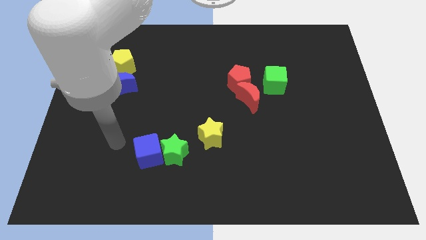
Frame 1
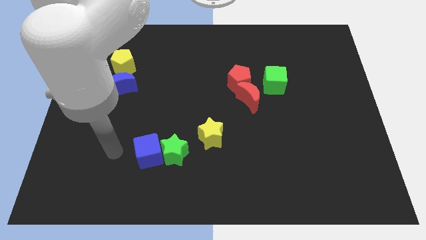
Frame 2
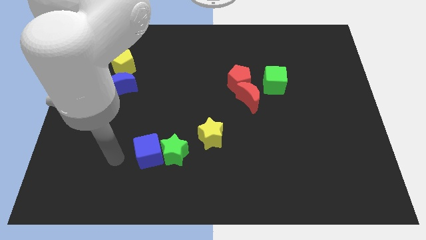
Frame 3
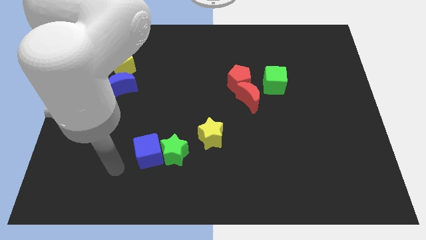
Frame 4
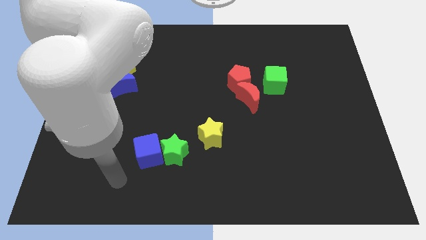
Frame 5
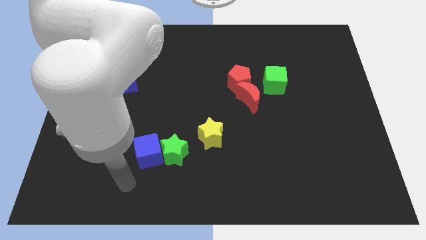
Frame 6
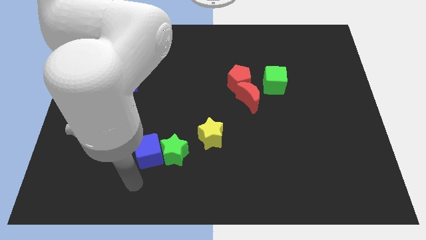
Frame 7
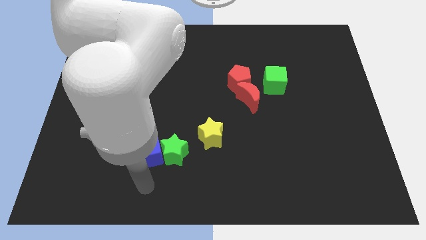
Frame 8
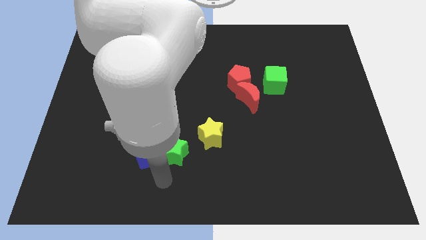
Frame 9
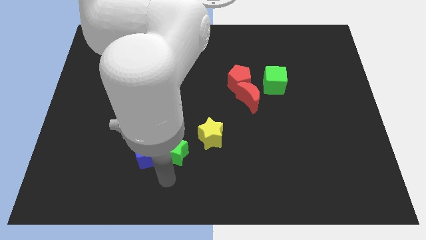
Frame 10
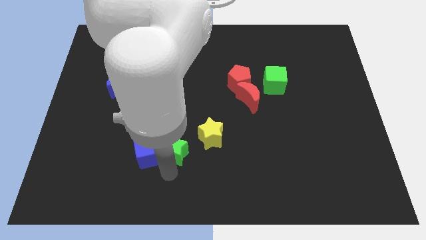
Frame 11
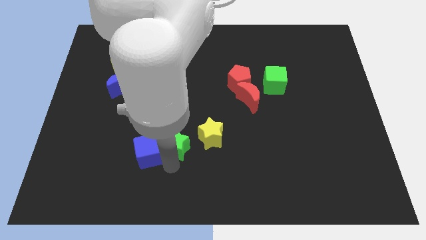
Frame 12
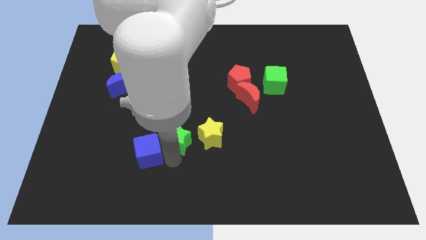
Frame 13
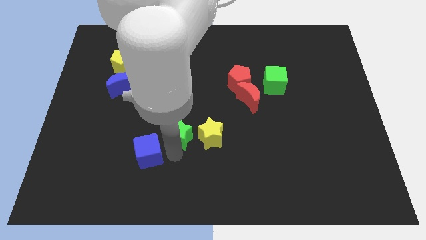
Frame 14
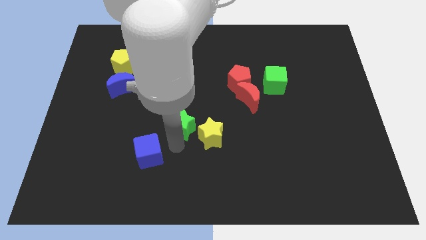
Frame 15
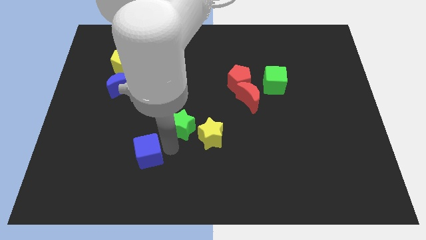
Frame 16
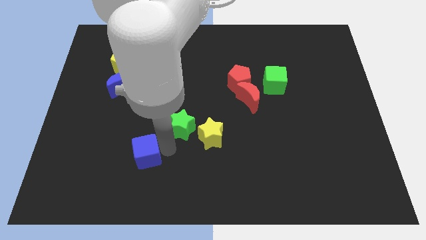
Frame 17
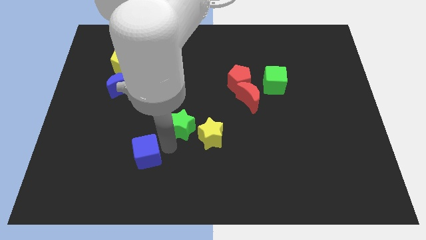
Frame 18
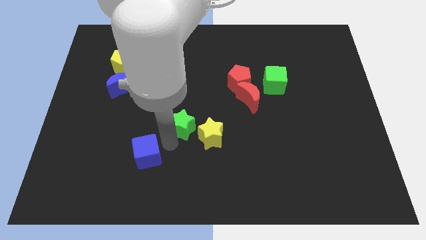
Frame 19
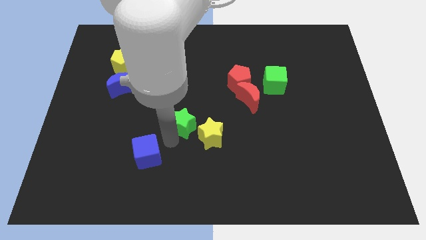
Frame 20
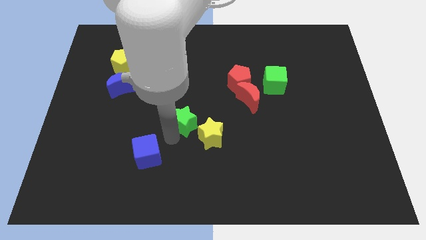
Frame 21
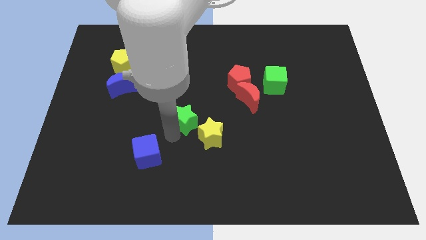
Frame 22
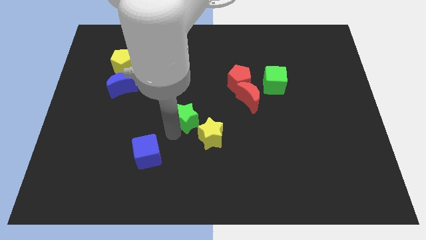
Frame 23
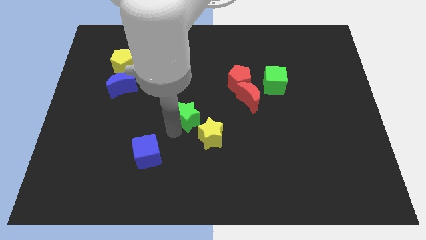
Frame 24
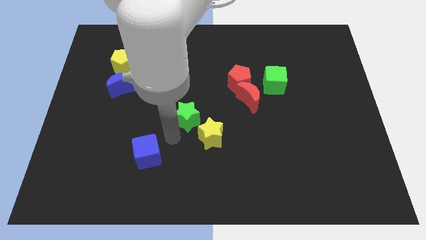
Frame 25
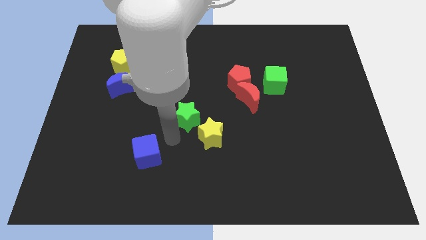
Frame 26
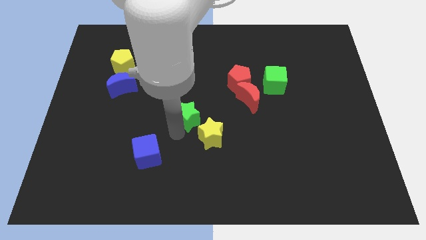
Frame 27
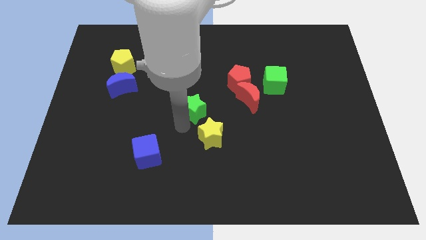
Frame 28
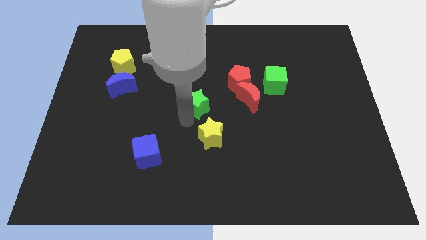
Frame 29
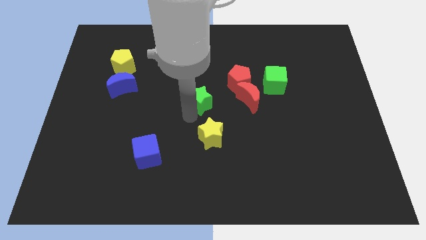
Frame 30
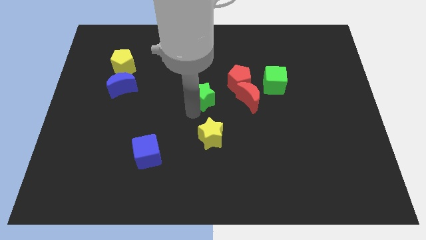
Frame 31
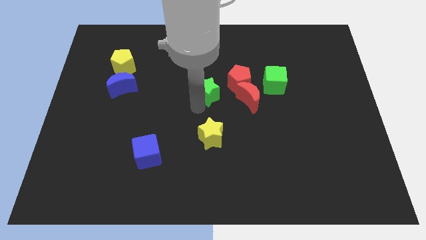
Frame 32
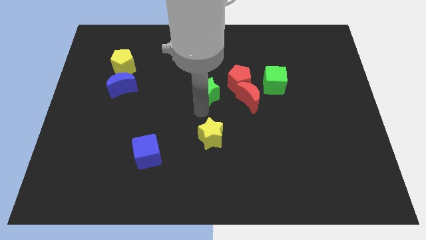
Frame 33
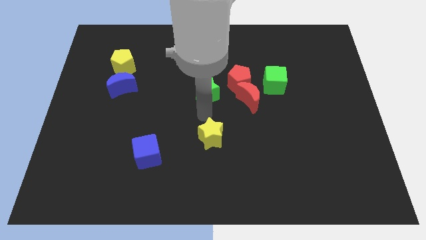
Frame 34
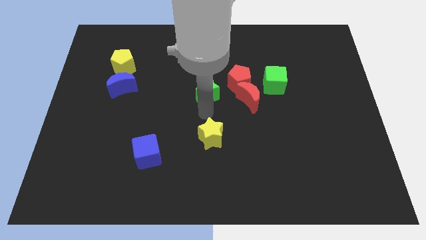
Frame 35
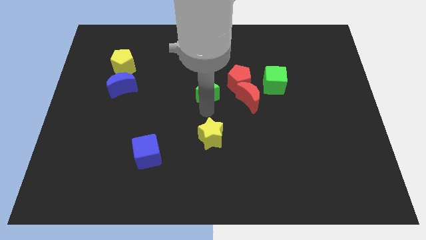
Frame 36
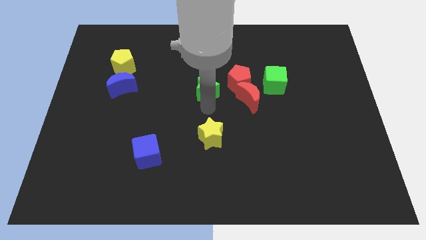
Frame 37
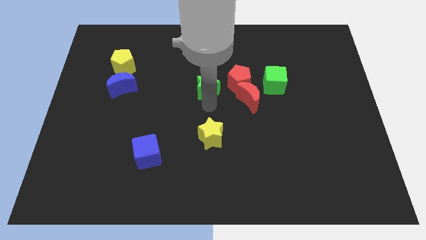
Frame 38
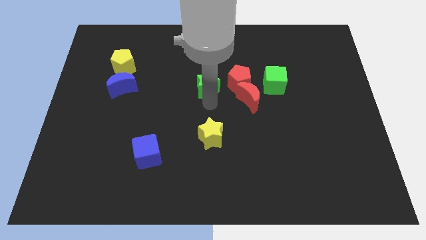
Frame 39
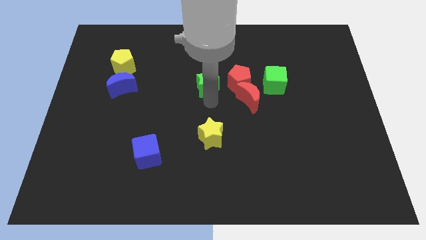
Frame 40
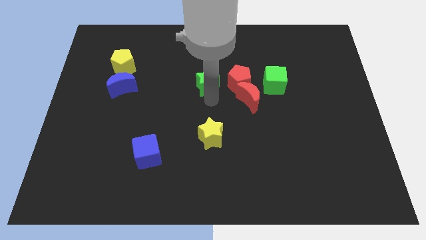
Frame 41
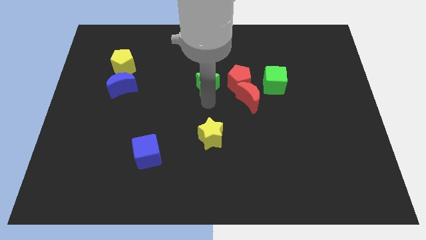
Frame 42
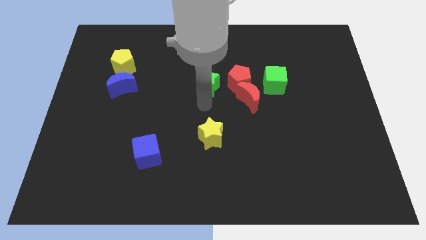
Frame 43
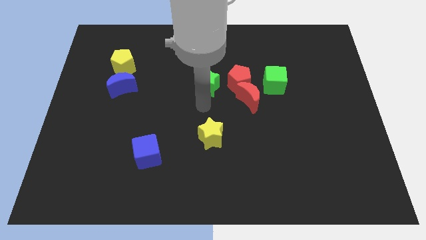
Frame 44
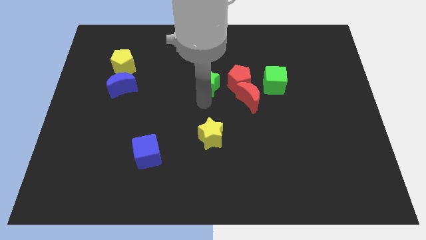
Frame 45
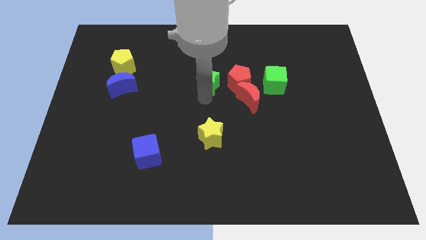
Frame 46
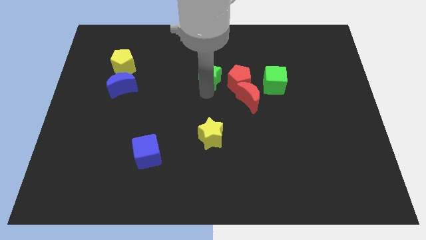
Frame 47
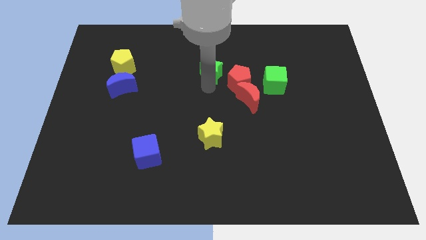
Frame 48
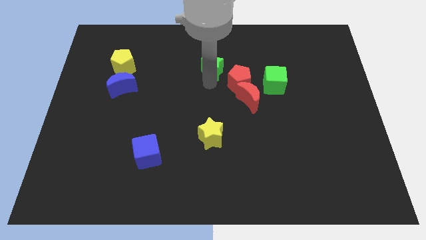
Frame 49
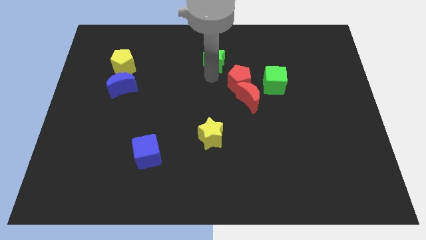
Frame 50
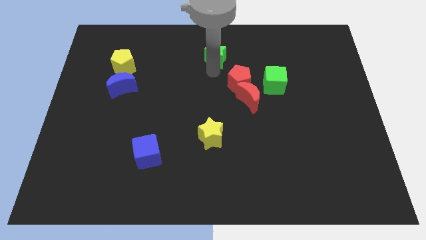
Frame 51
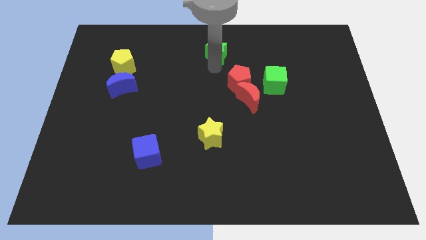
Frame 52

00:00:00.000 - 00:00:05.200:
move the green star to the towards your base

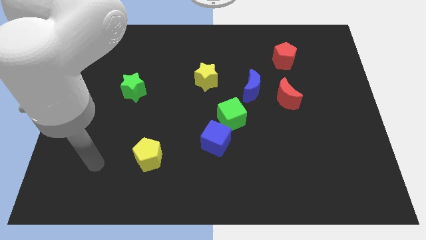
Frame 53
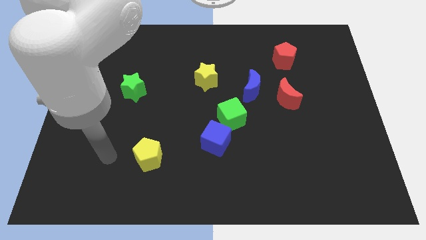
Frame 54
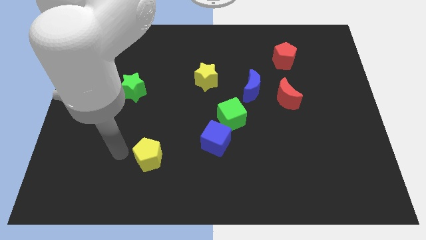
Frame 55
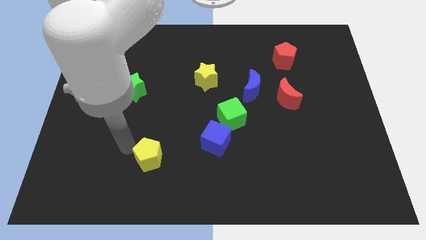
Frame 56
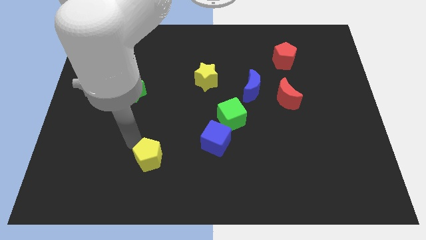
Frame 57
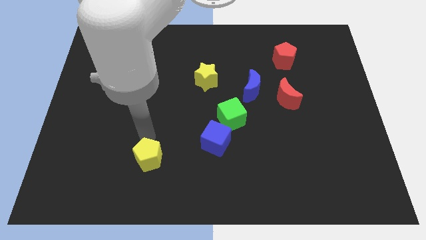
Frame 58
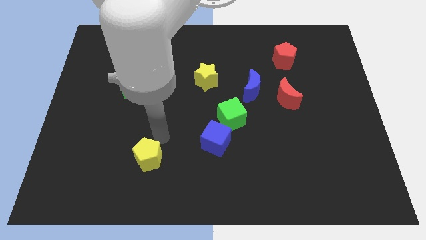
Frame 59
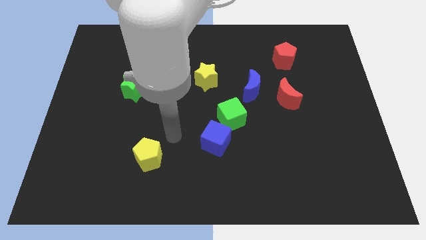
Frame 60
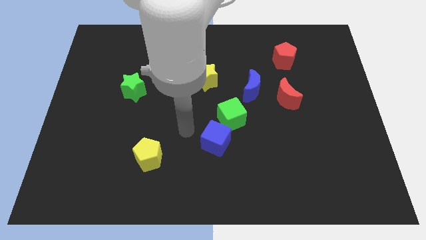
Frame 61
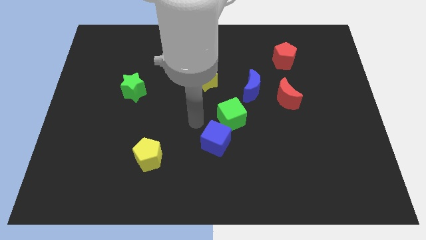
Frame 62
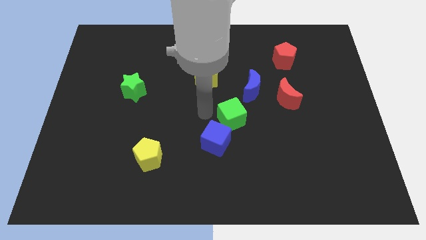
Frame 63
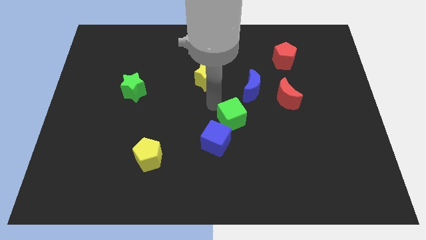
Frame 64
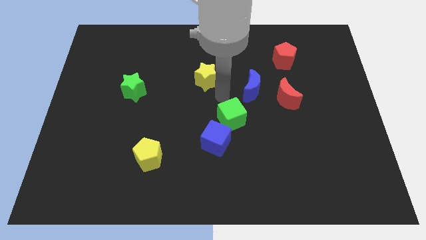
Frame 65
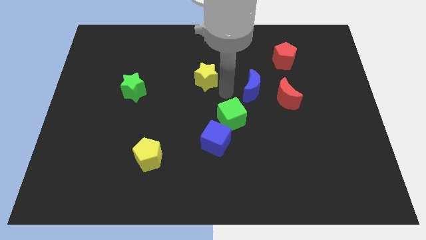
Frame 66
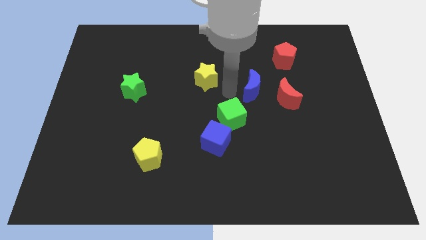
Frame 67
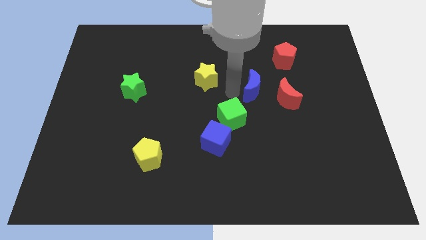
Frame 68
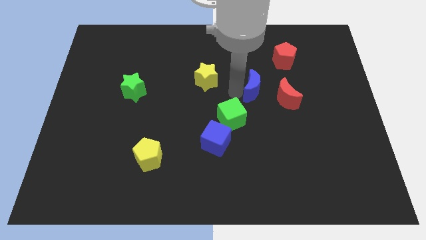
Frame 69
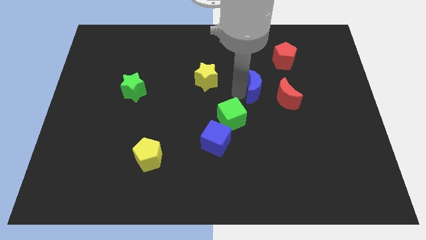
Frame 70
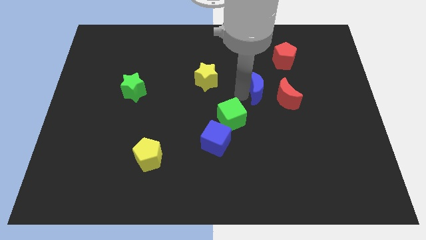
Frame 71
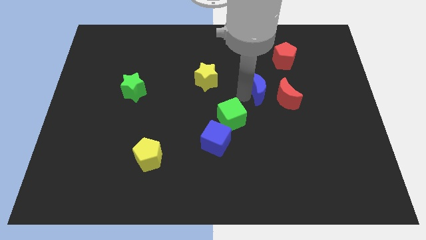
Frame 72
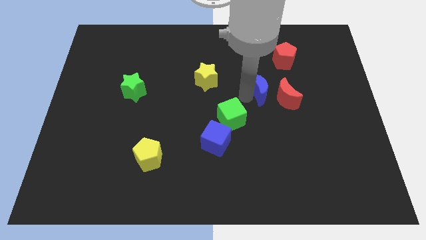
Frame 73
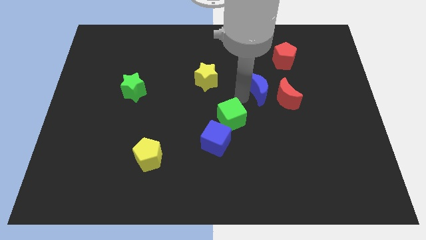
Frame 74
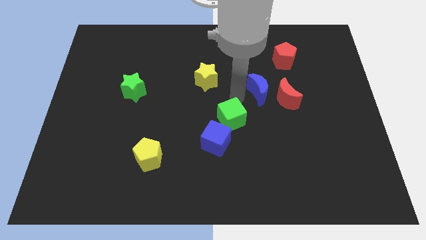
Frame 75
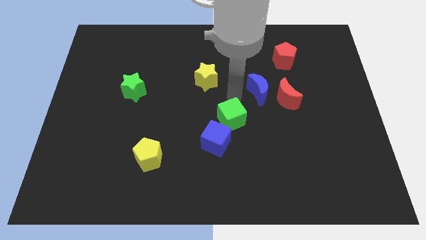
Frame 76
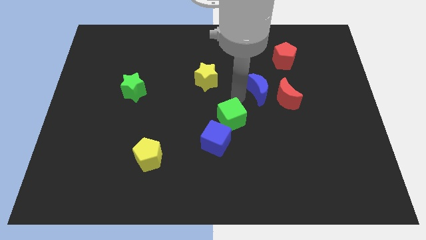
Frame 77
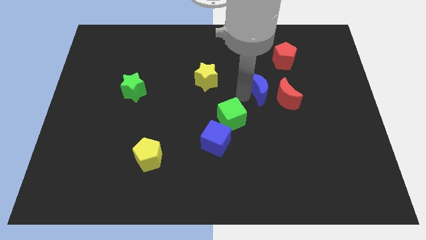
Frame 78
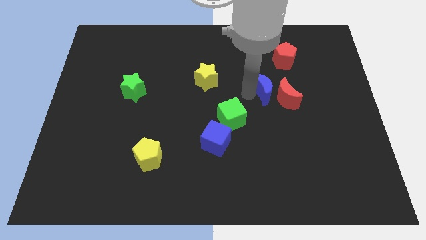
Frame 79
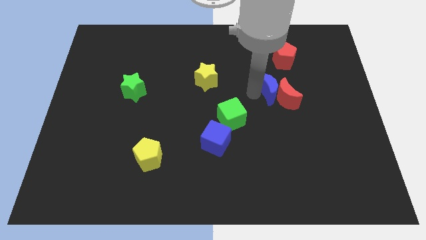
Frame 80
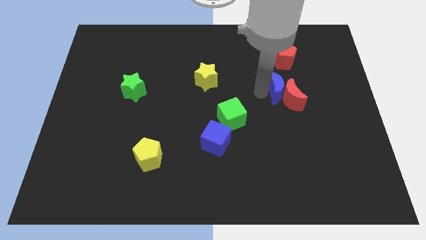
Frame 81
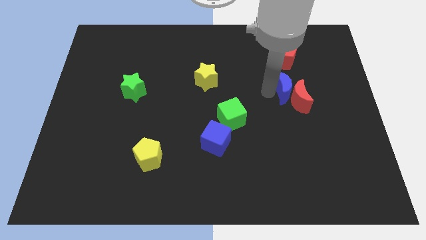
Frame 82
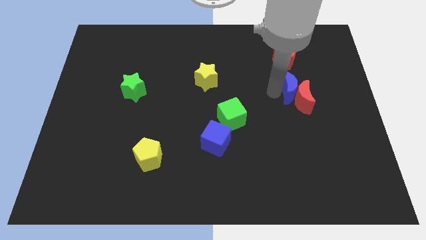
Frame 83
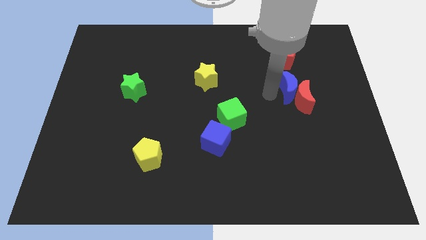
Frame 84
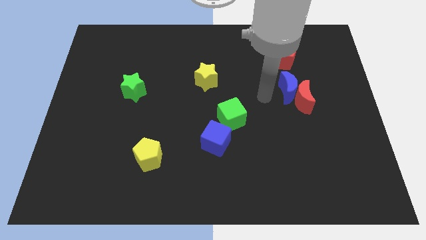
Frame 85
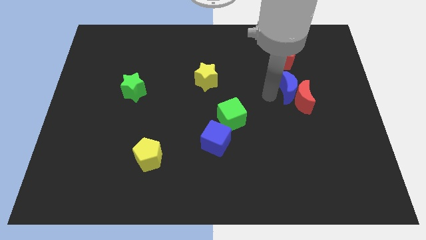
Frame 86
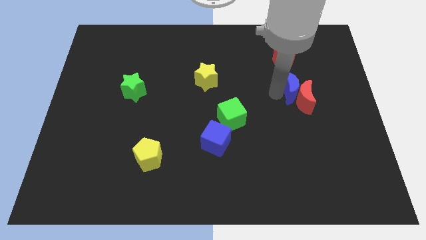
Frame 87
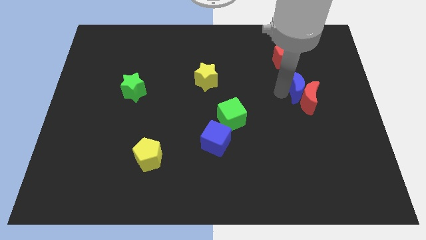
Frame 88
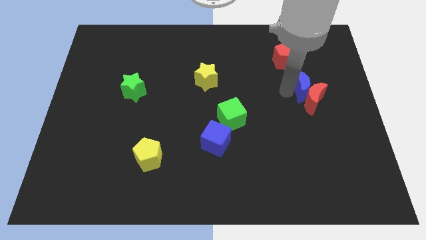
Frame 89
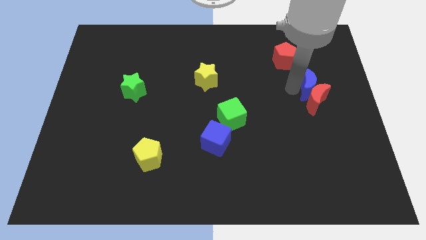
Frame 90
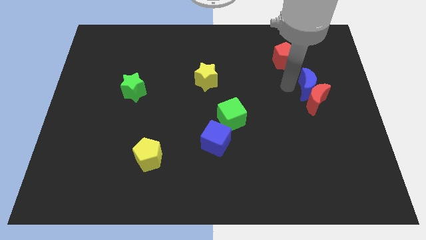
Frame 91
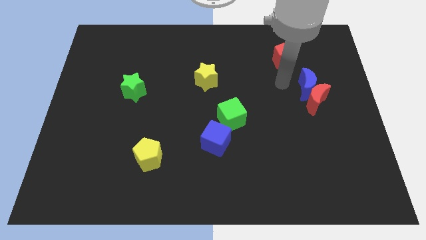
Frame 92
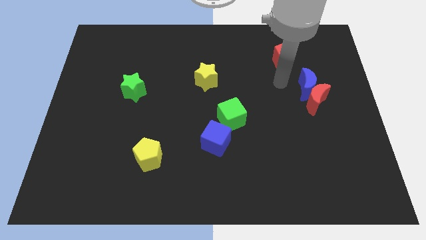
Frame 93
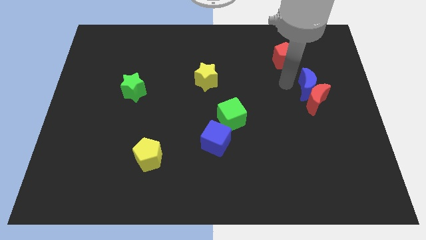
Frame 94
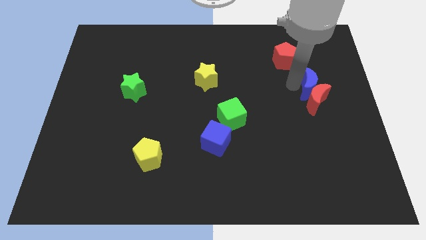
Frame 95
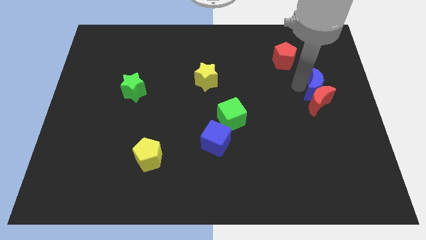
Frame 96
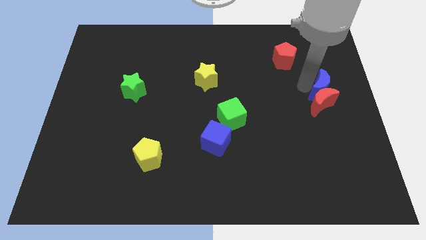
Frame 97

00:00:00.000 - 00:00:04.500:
slide the blue moon to the center right
